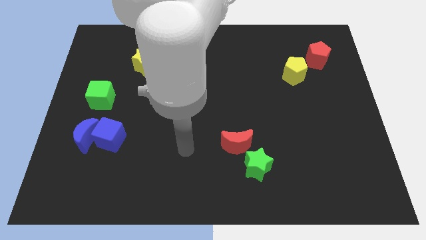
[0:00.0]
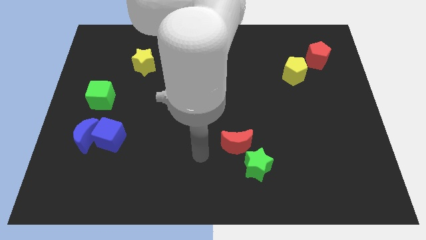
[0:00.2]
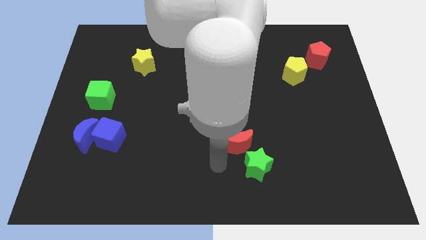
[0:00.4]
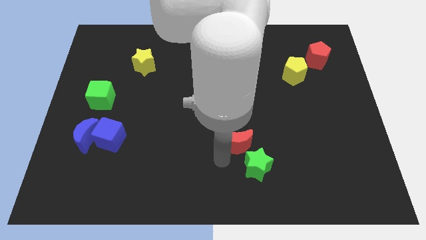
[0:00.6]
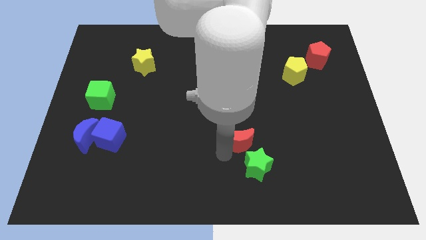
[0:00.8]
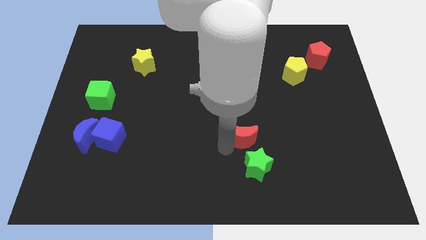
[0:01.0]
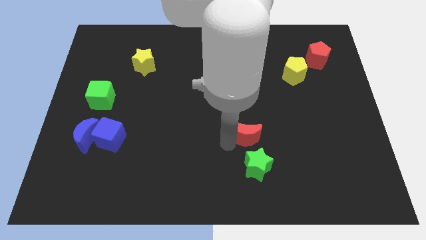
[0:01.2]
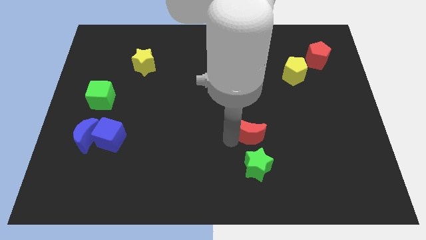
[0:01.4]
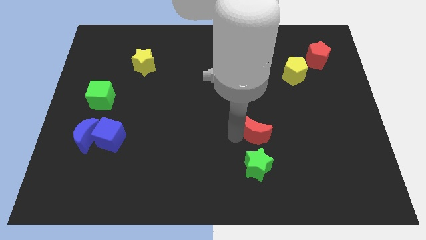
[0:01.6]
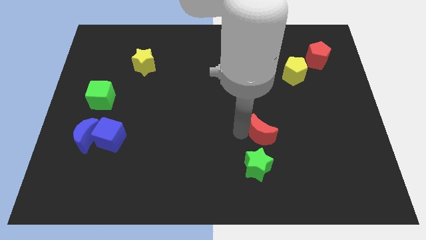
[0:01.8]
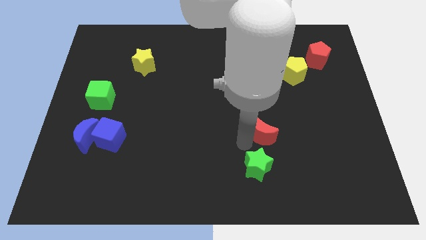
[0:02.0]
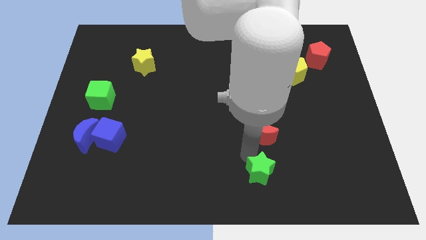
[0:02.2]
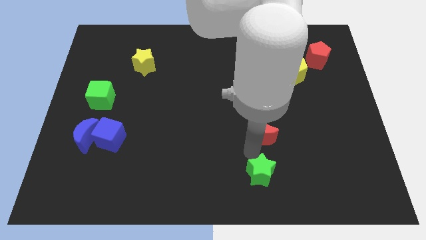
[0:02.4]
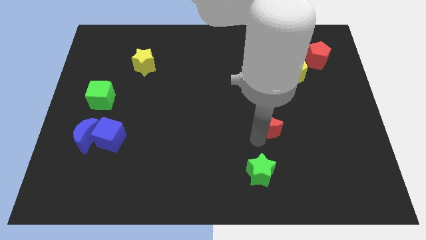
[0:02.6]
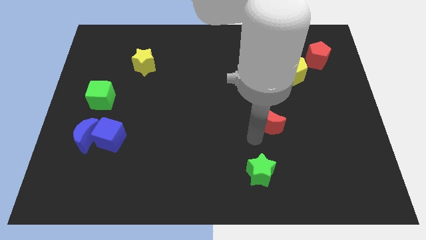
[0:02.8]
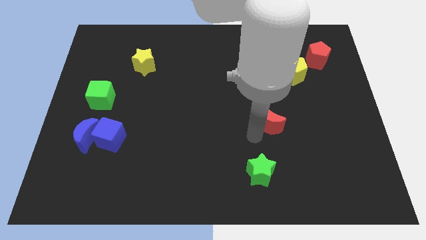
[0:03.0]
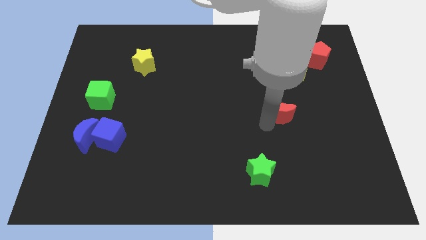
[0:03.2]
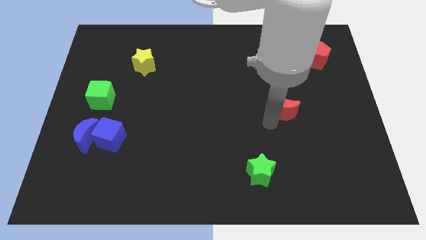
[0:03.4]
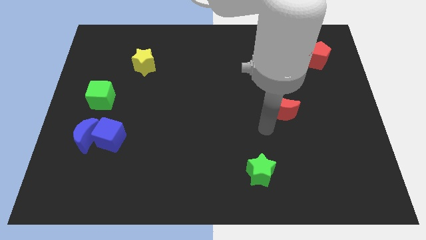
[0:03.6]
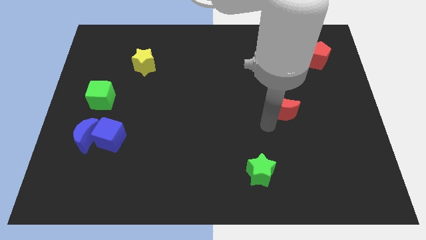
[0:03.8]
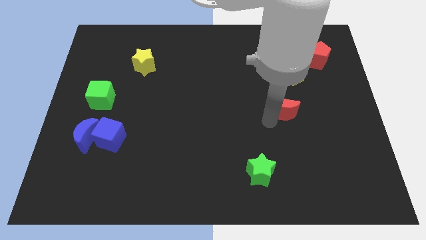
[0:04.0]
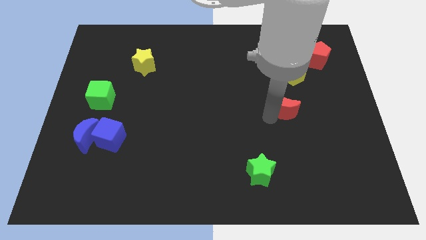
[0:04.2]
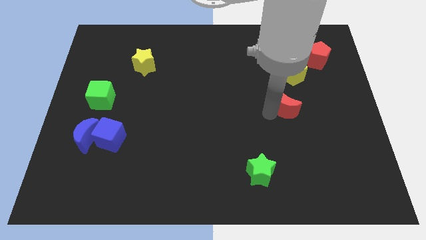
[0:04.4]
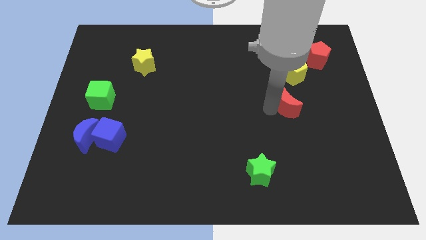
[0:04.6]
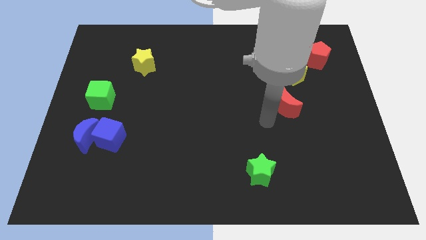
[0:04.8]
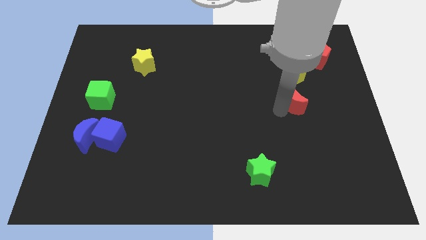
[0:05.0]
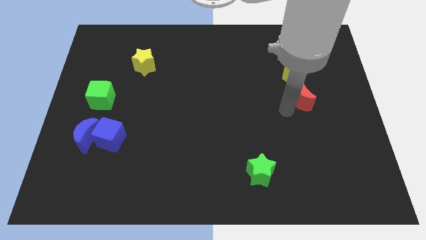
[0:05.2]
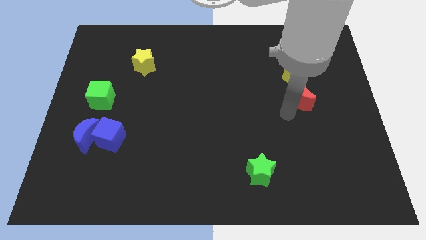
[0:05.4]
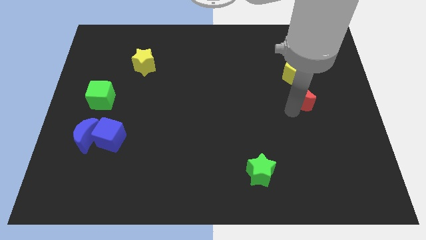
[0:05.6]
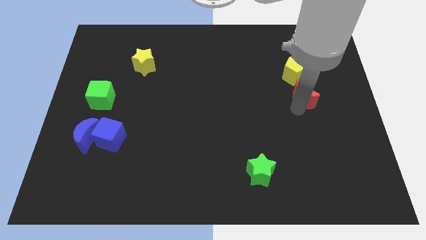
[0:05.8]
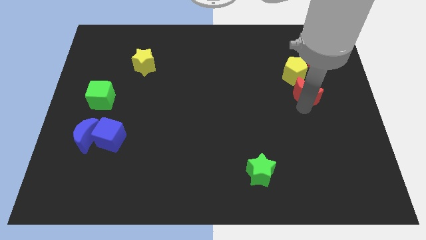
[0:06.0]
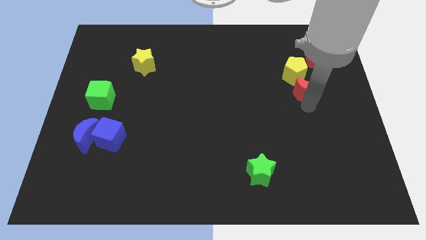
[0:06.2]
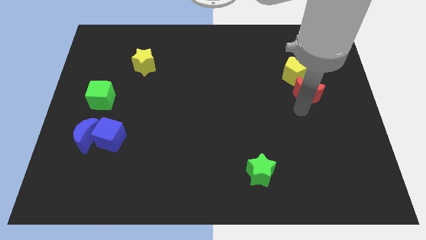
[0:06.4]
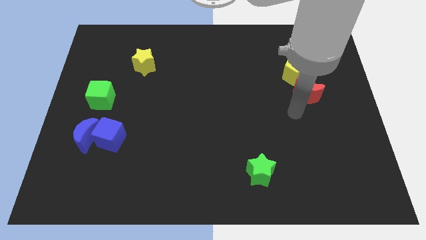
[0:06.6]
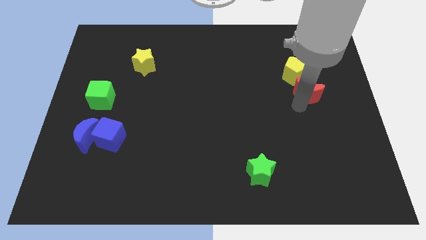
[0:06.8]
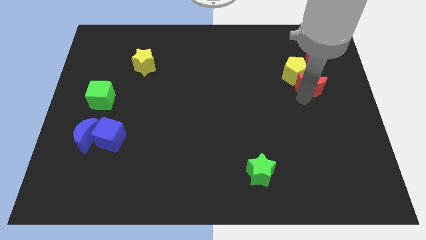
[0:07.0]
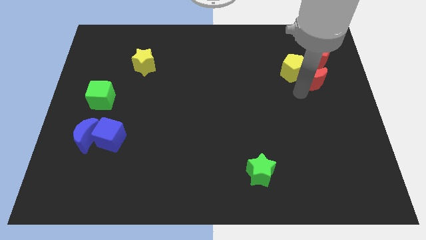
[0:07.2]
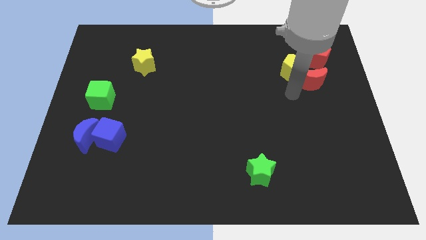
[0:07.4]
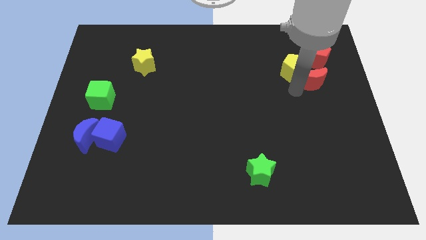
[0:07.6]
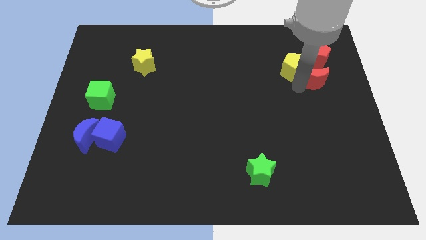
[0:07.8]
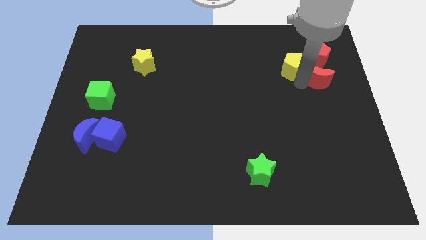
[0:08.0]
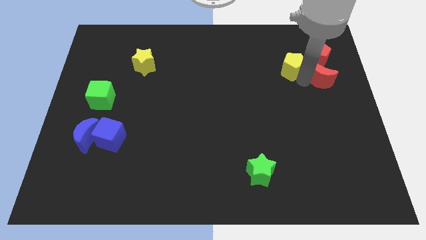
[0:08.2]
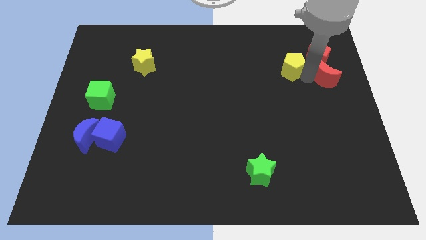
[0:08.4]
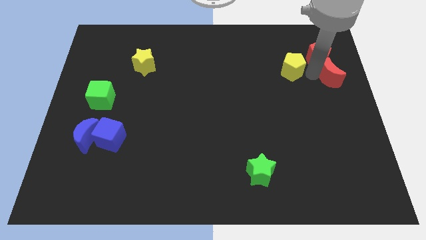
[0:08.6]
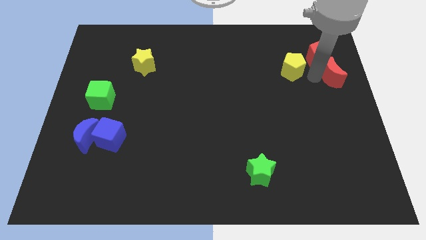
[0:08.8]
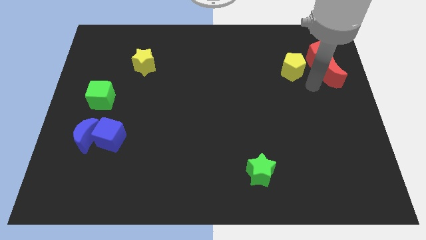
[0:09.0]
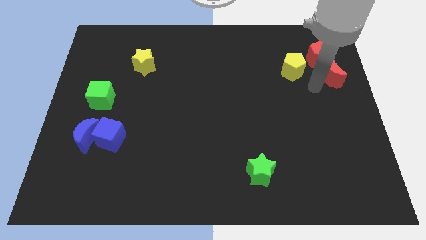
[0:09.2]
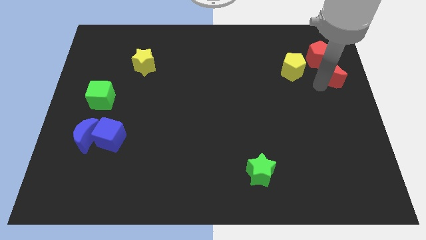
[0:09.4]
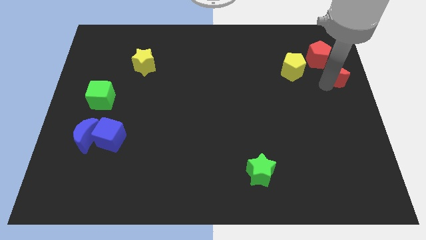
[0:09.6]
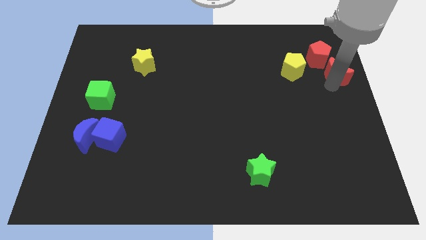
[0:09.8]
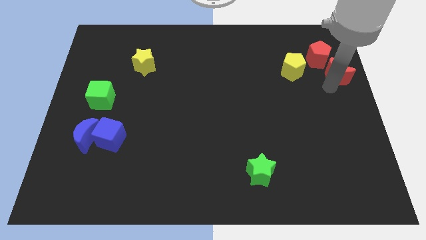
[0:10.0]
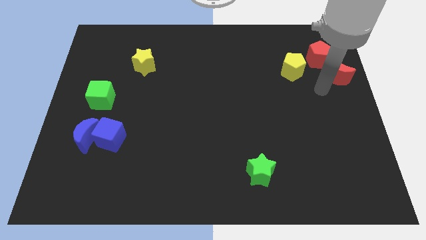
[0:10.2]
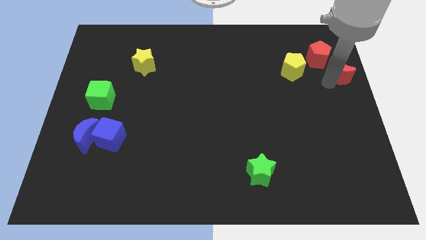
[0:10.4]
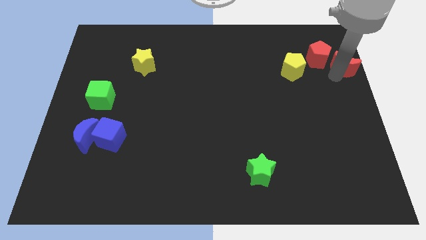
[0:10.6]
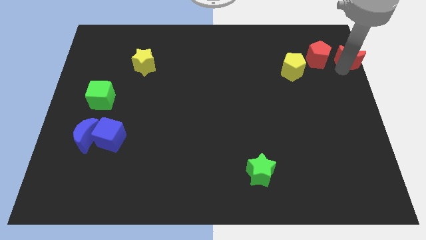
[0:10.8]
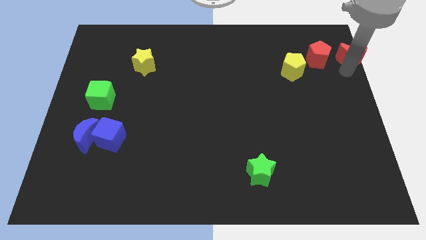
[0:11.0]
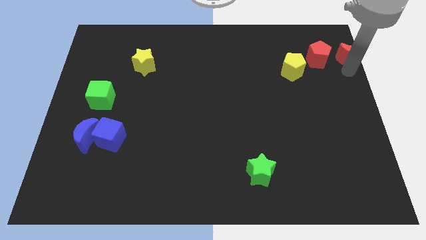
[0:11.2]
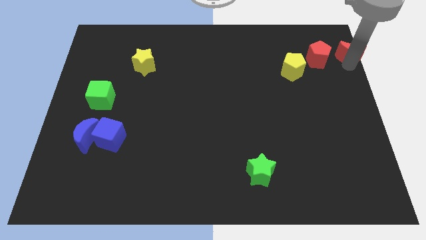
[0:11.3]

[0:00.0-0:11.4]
move the red moon to the top right of the board

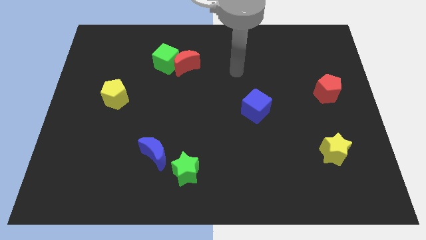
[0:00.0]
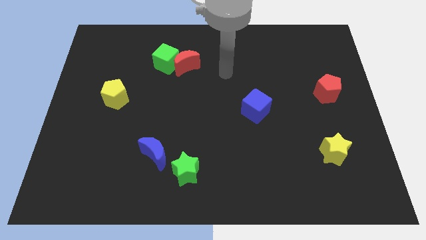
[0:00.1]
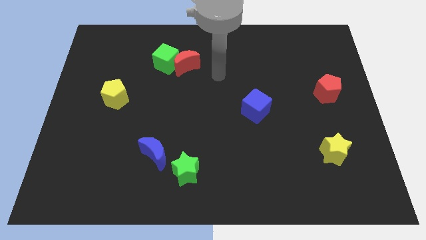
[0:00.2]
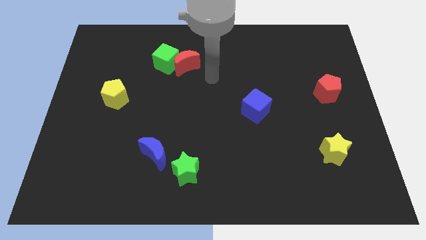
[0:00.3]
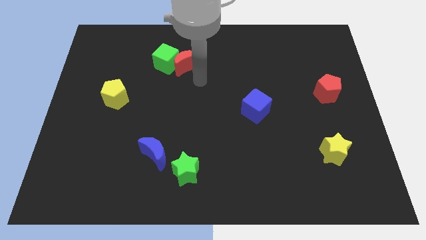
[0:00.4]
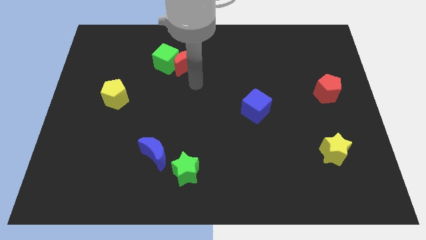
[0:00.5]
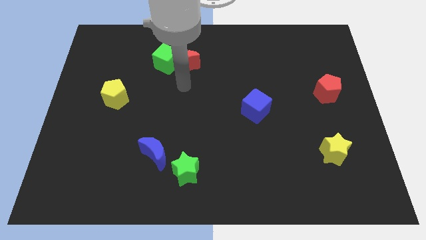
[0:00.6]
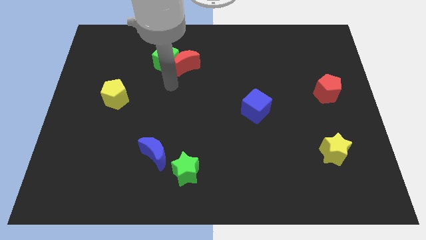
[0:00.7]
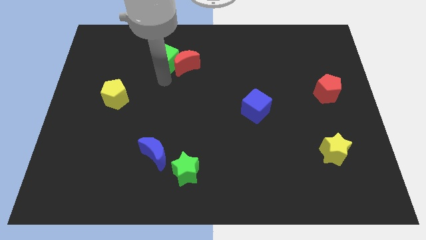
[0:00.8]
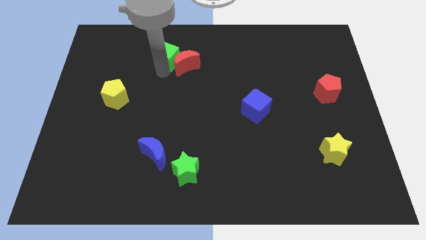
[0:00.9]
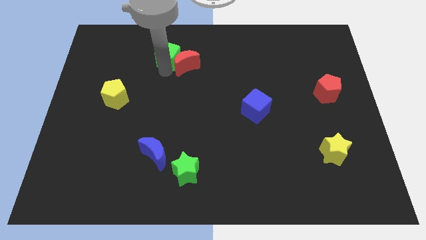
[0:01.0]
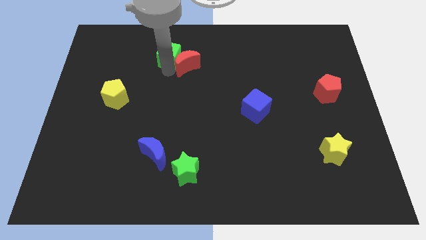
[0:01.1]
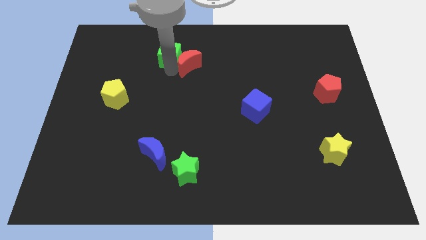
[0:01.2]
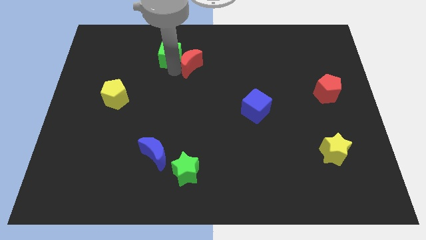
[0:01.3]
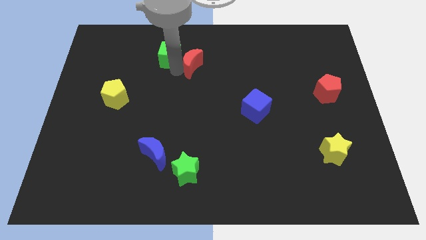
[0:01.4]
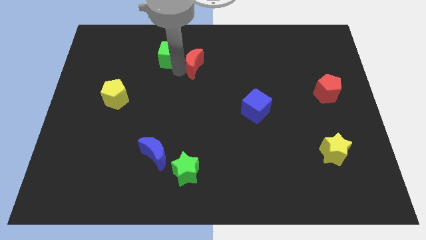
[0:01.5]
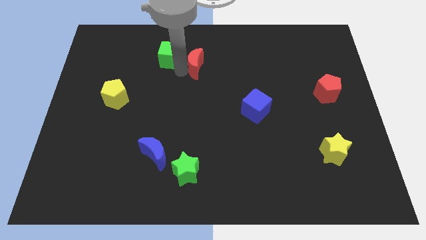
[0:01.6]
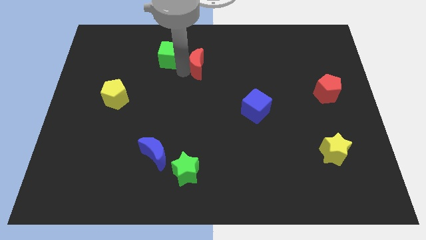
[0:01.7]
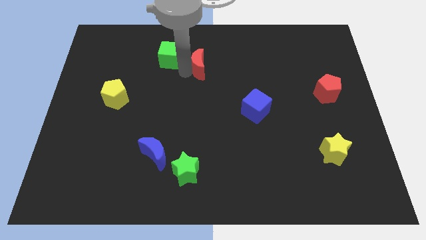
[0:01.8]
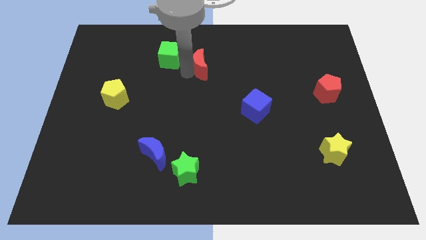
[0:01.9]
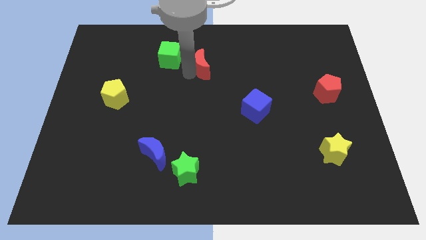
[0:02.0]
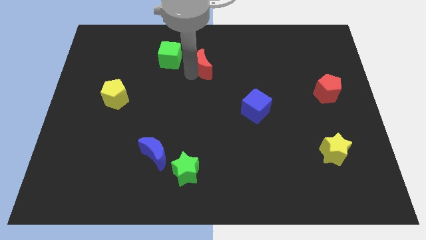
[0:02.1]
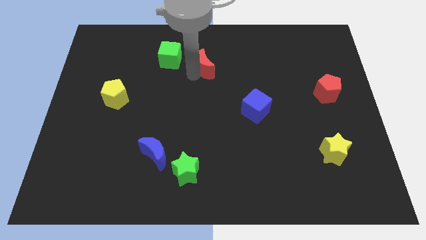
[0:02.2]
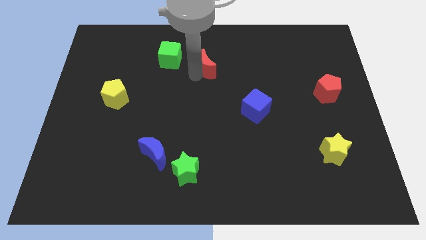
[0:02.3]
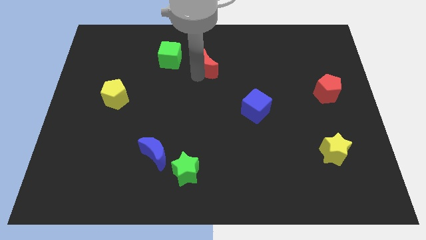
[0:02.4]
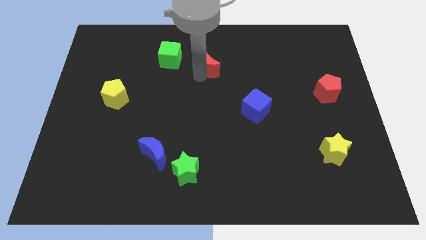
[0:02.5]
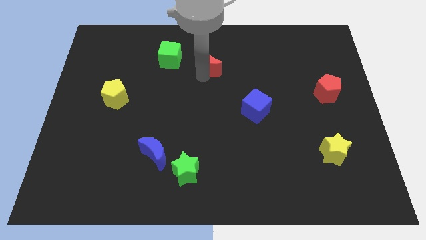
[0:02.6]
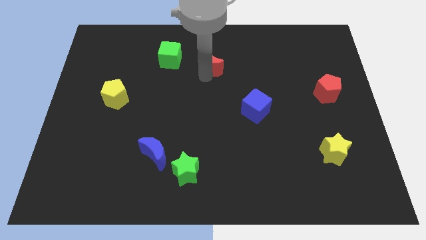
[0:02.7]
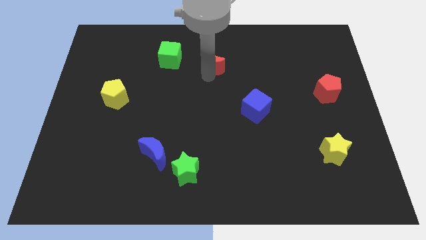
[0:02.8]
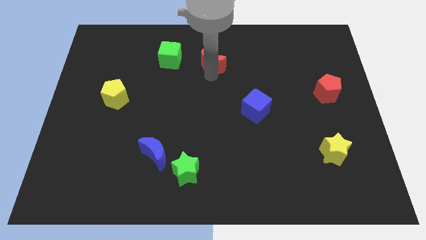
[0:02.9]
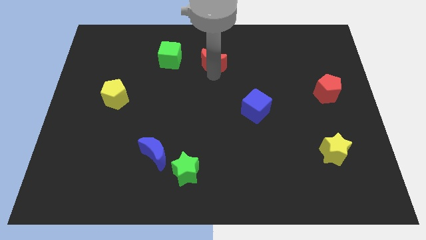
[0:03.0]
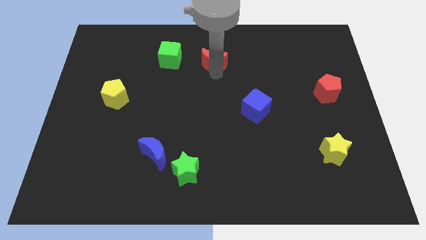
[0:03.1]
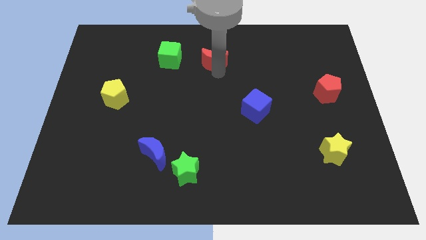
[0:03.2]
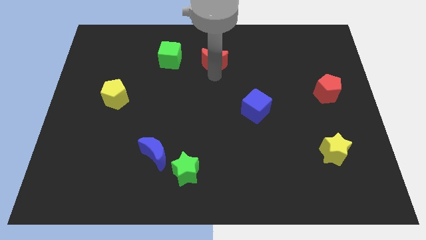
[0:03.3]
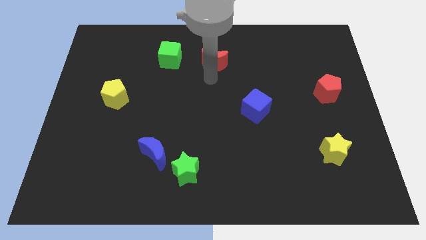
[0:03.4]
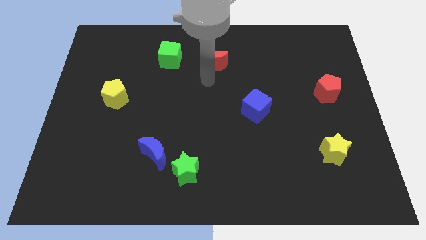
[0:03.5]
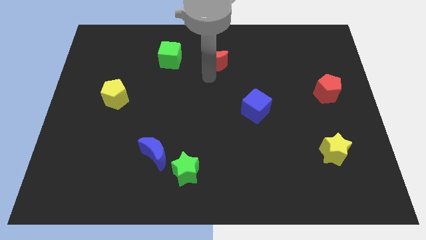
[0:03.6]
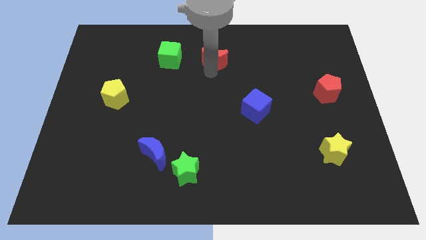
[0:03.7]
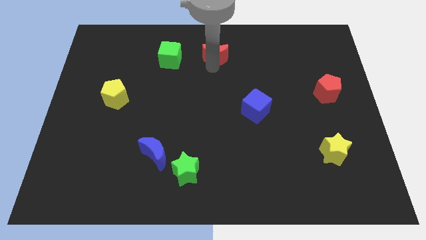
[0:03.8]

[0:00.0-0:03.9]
slide the red moon to the top
